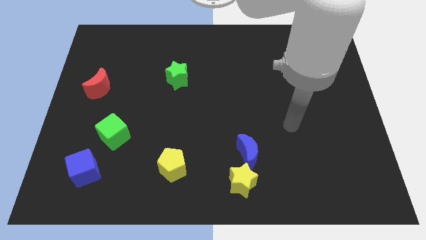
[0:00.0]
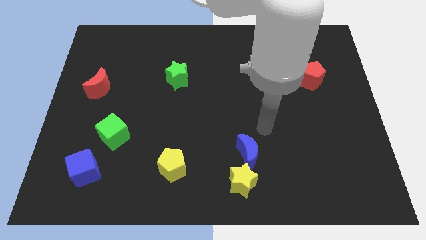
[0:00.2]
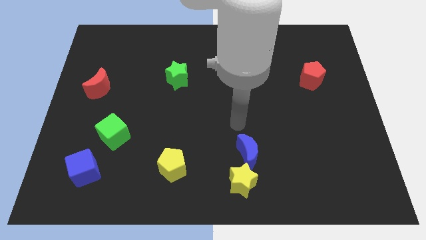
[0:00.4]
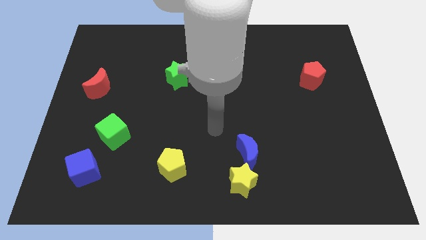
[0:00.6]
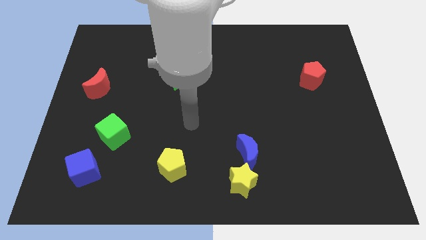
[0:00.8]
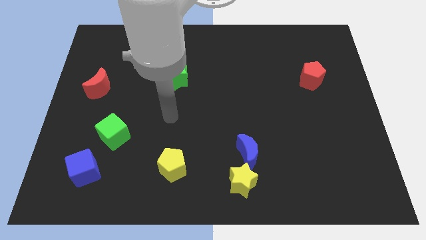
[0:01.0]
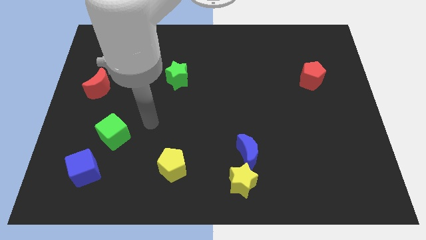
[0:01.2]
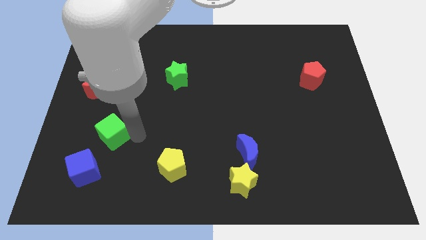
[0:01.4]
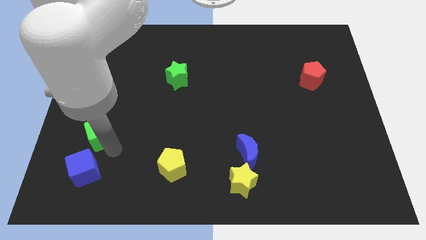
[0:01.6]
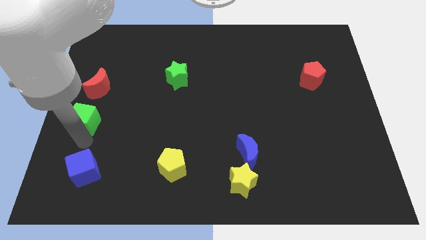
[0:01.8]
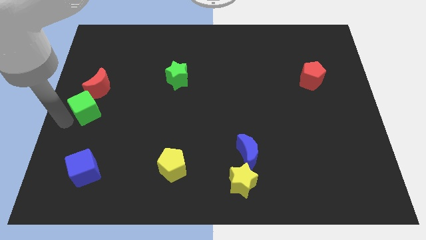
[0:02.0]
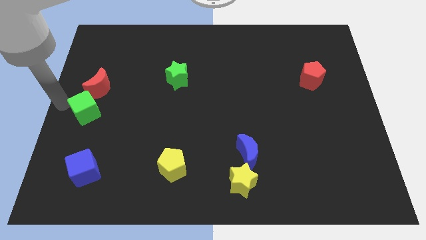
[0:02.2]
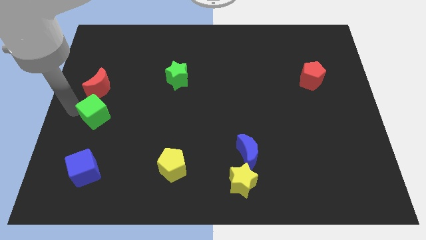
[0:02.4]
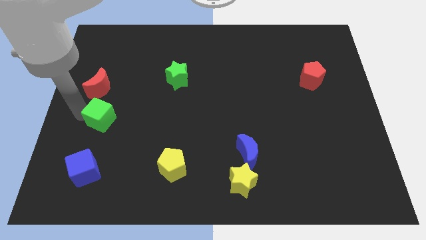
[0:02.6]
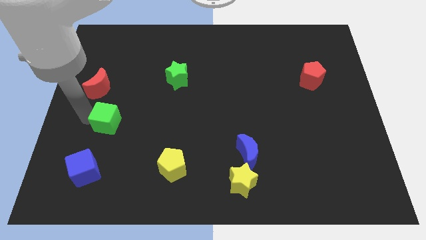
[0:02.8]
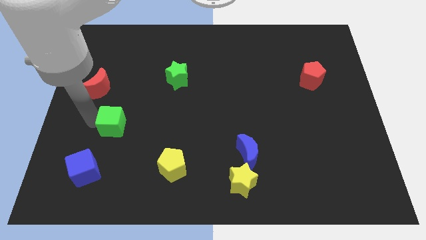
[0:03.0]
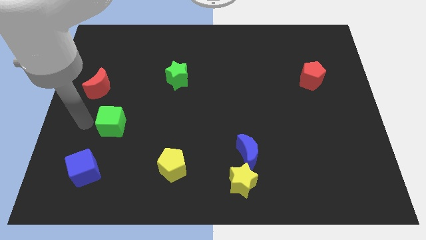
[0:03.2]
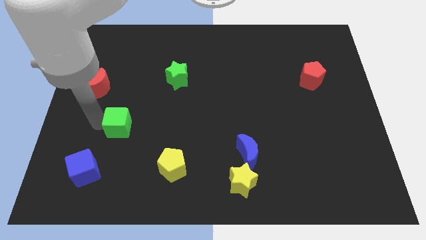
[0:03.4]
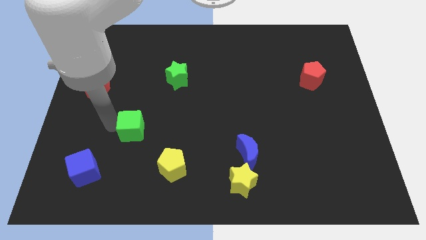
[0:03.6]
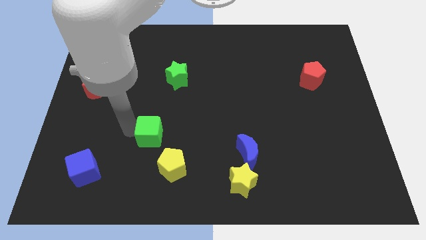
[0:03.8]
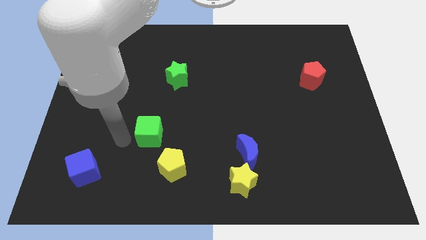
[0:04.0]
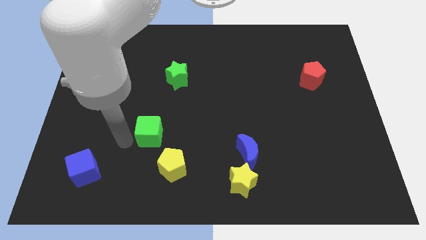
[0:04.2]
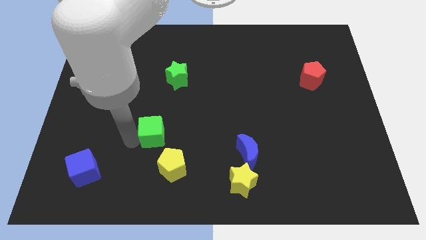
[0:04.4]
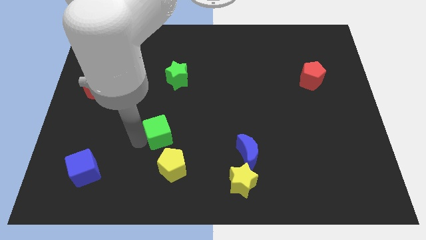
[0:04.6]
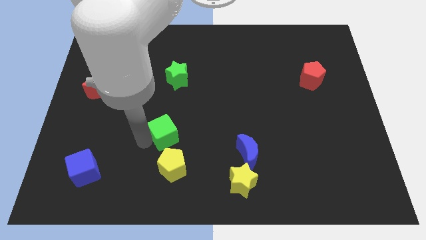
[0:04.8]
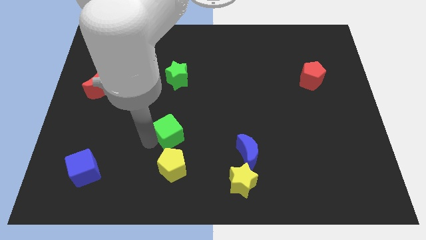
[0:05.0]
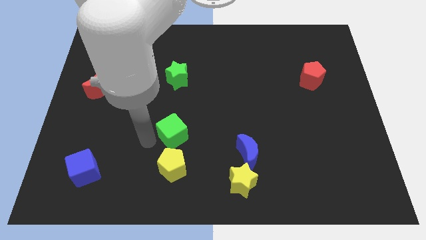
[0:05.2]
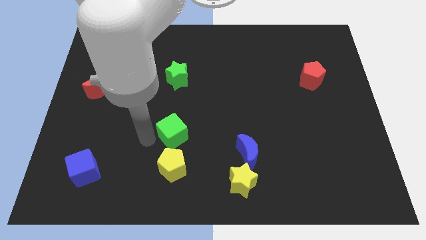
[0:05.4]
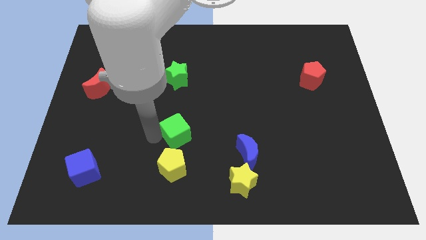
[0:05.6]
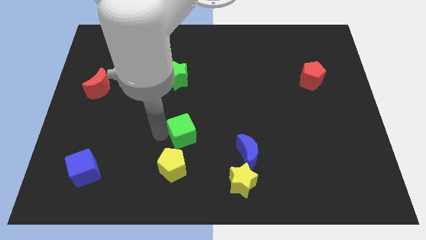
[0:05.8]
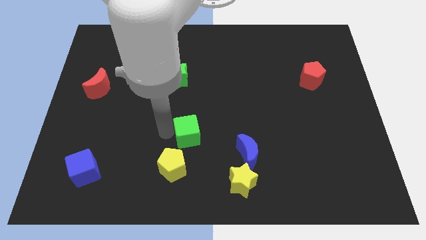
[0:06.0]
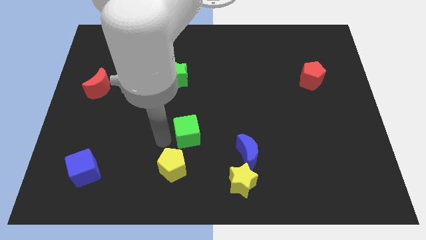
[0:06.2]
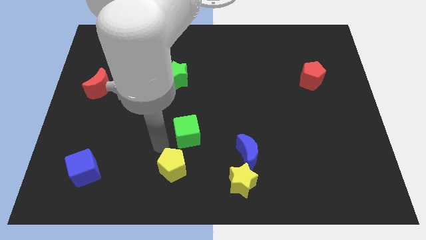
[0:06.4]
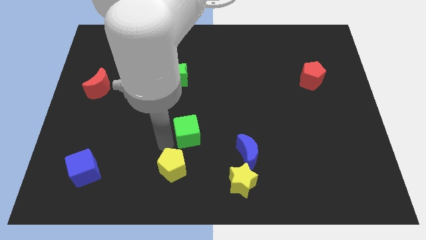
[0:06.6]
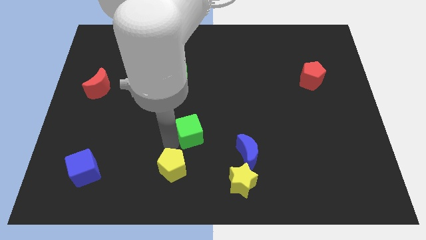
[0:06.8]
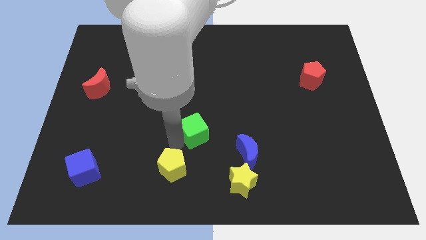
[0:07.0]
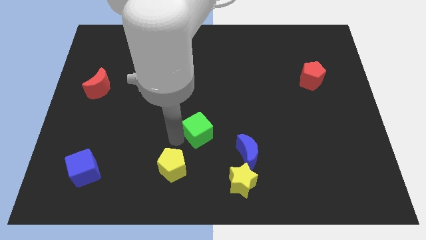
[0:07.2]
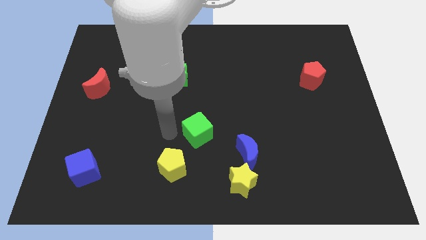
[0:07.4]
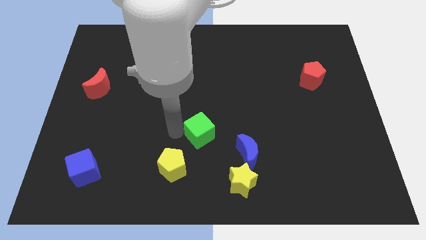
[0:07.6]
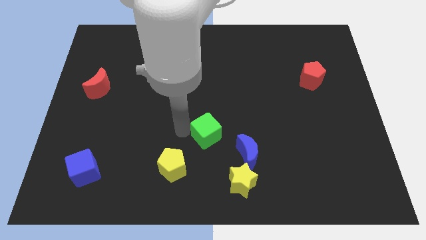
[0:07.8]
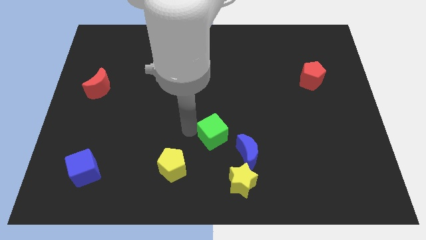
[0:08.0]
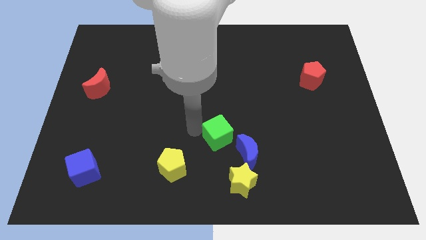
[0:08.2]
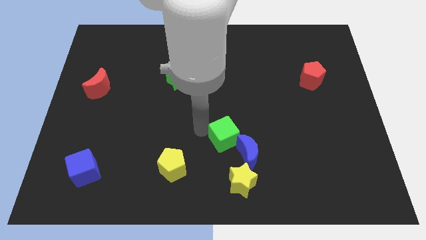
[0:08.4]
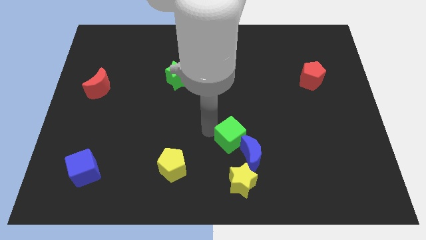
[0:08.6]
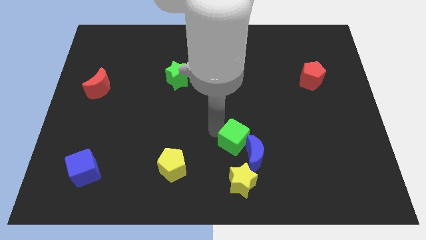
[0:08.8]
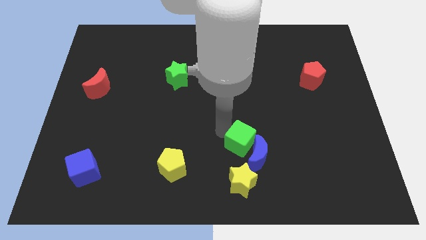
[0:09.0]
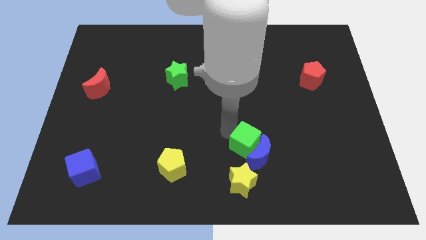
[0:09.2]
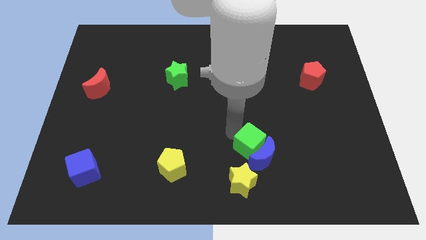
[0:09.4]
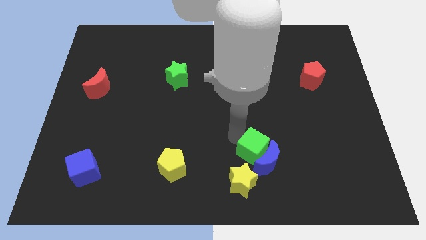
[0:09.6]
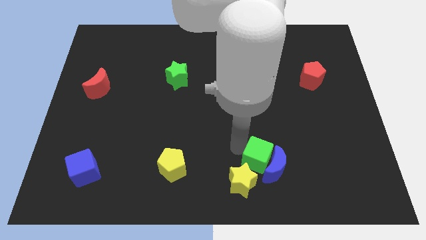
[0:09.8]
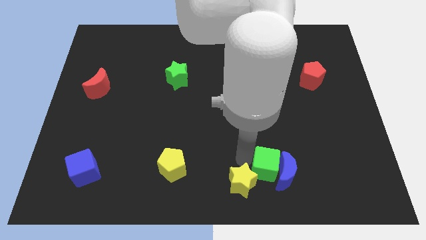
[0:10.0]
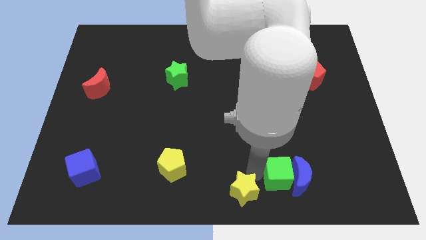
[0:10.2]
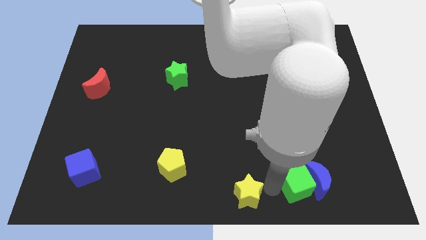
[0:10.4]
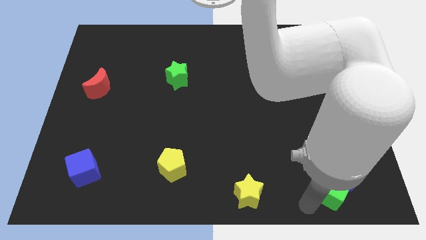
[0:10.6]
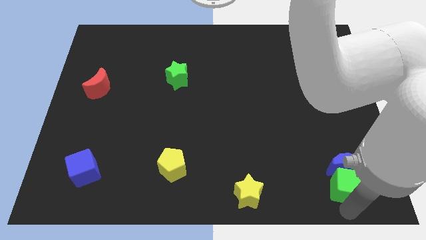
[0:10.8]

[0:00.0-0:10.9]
slide the green cube to the bottom right

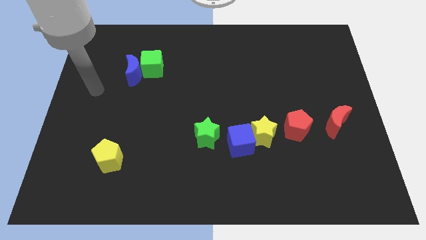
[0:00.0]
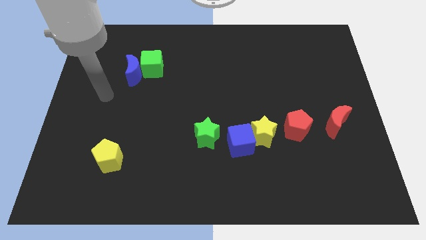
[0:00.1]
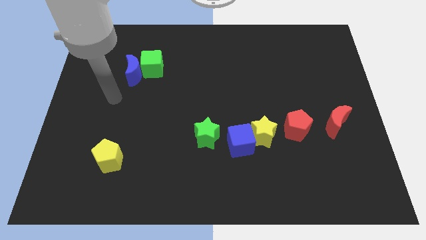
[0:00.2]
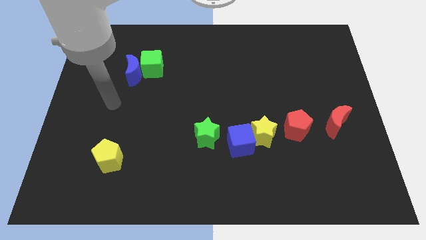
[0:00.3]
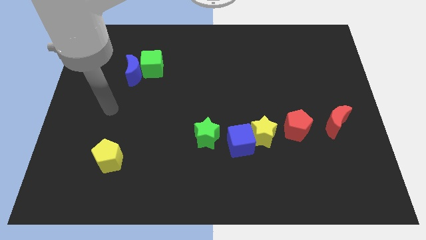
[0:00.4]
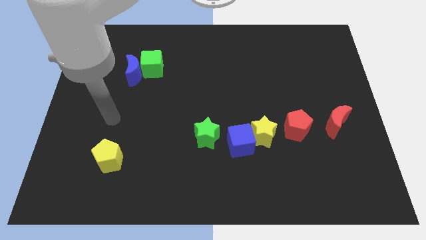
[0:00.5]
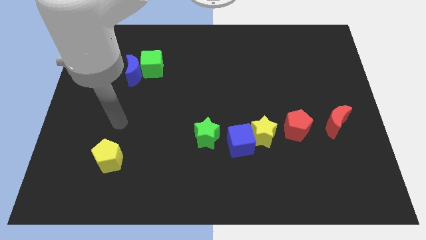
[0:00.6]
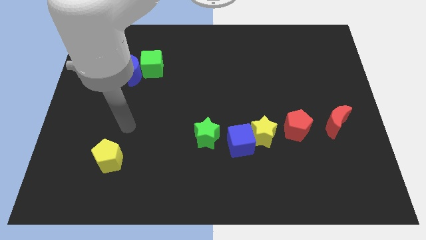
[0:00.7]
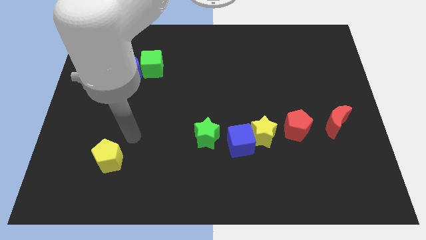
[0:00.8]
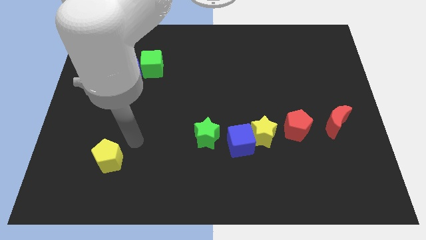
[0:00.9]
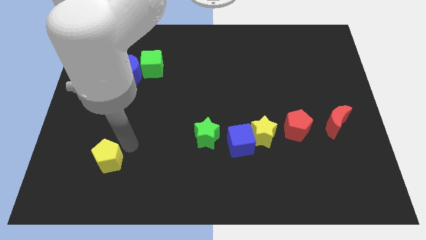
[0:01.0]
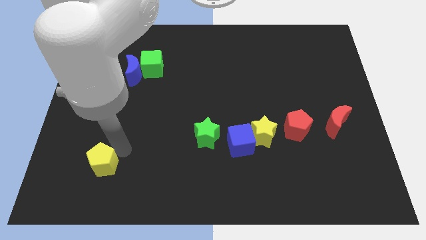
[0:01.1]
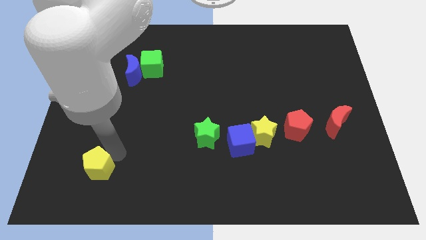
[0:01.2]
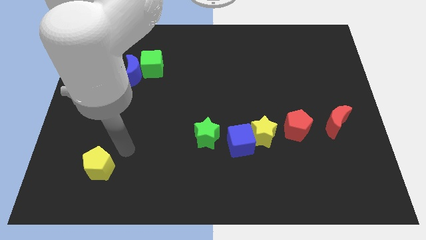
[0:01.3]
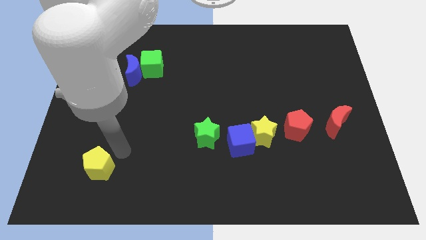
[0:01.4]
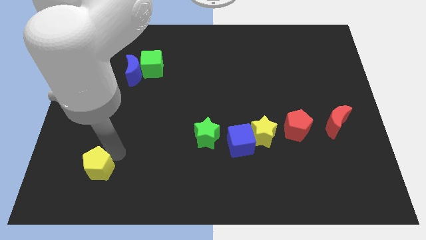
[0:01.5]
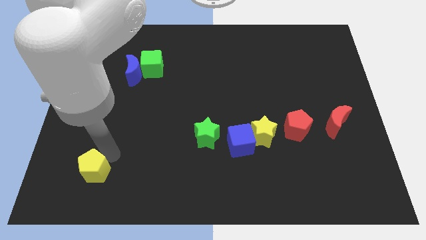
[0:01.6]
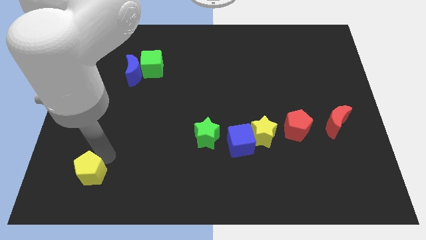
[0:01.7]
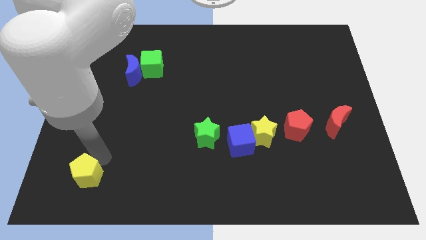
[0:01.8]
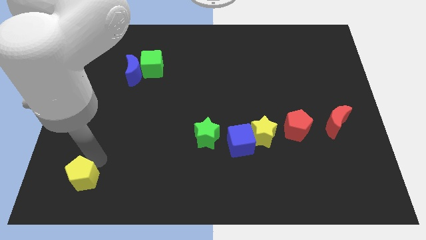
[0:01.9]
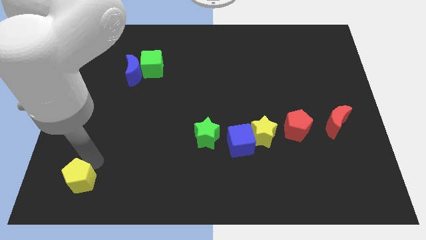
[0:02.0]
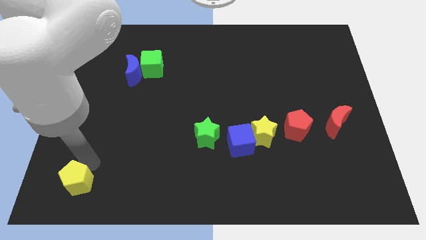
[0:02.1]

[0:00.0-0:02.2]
push the yellow pentagon to the bottom left corner
